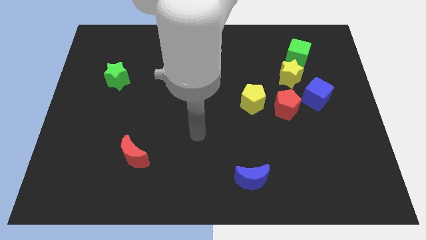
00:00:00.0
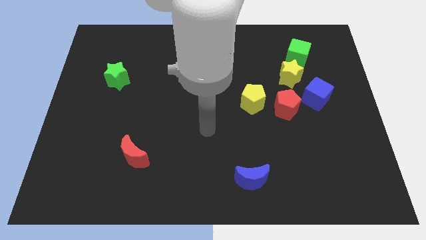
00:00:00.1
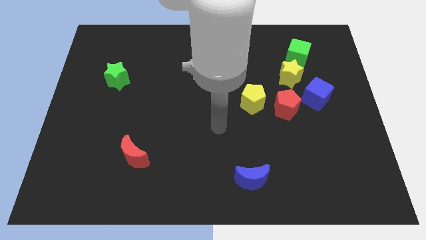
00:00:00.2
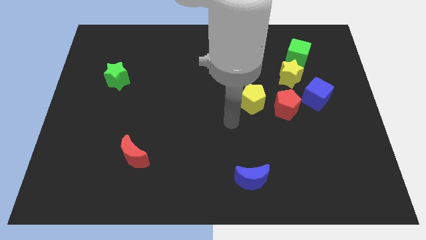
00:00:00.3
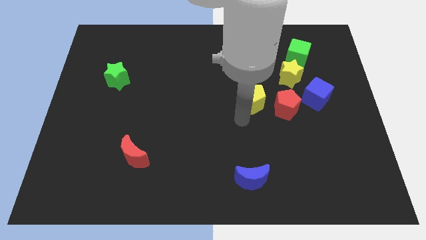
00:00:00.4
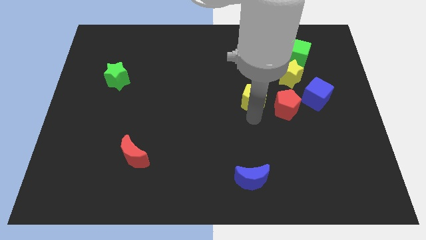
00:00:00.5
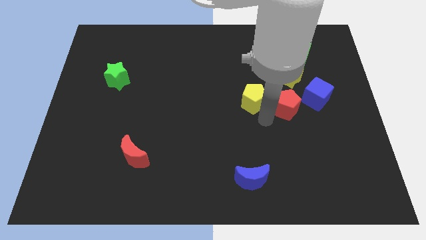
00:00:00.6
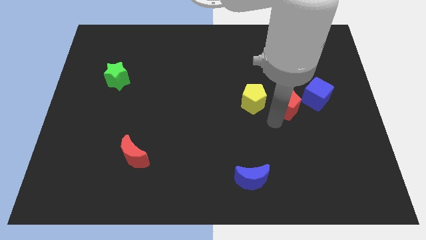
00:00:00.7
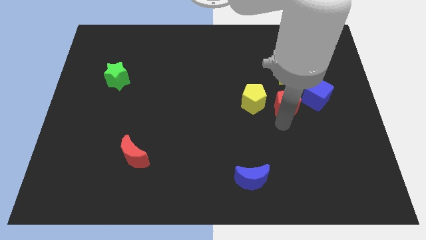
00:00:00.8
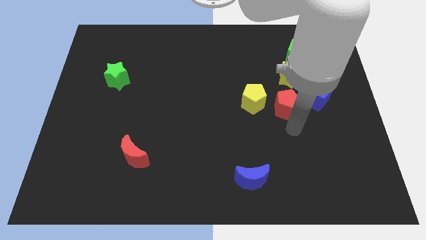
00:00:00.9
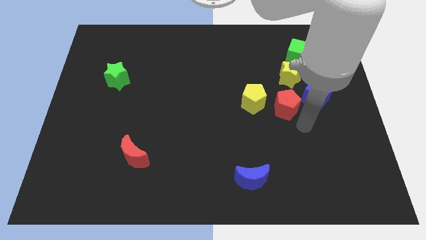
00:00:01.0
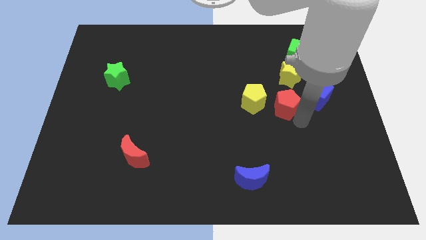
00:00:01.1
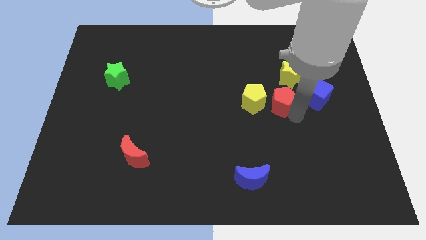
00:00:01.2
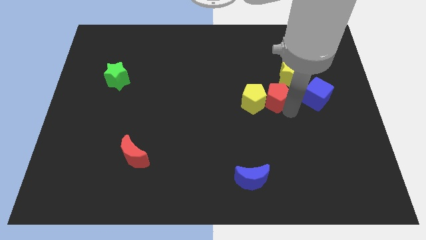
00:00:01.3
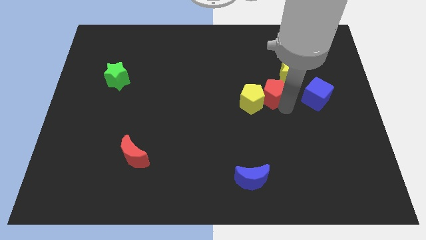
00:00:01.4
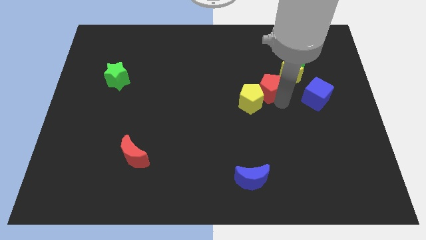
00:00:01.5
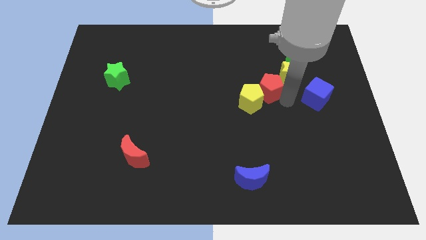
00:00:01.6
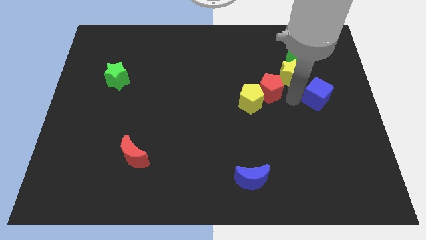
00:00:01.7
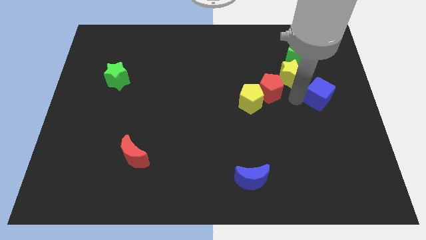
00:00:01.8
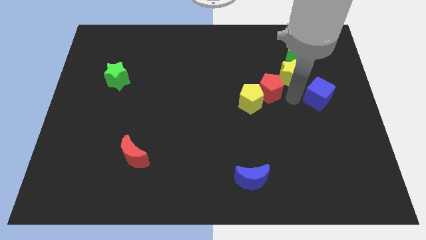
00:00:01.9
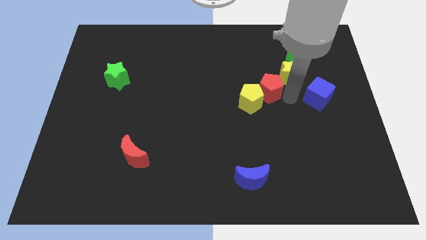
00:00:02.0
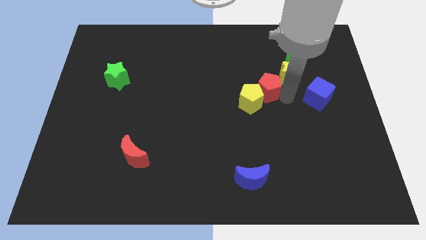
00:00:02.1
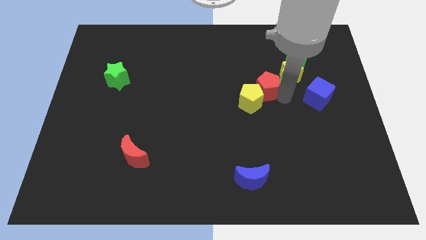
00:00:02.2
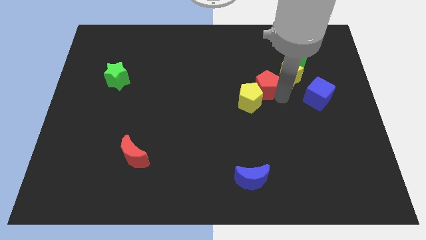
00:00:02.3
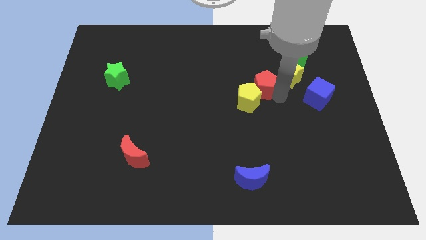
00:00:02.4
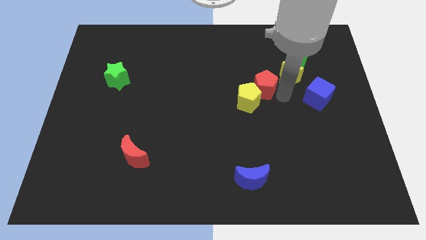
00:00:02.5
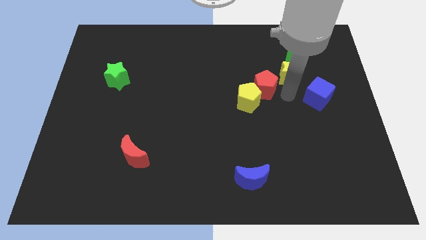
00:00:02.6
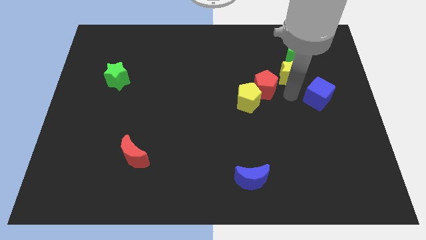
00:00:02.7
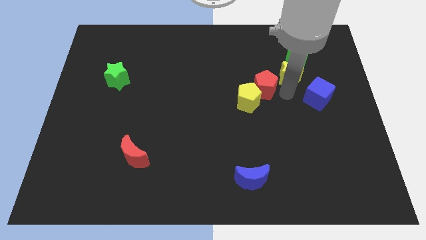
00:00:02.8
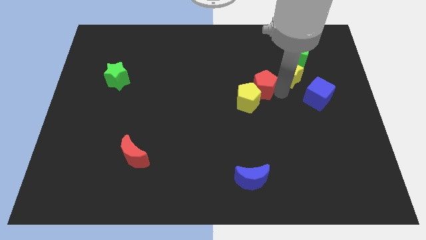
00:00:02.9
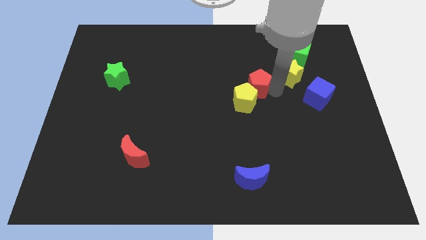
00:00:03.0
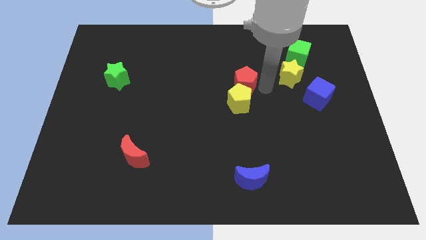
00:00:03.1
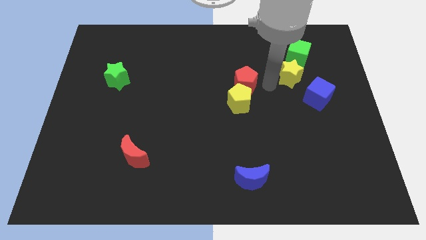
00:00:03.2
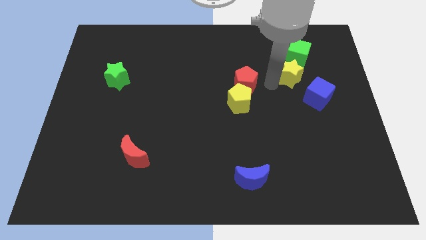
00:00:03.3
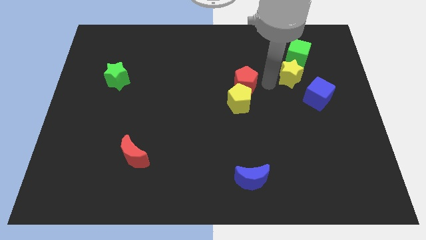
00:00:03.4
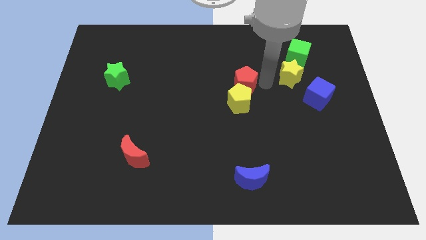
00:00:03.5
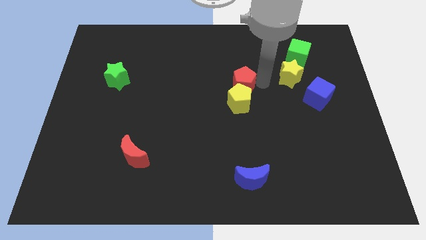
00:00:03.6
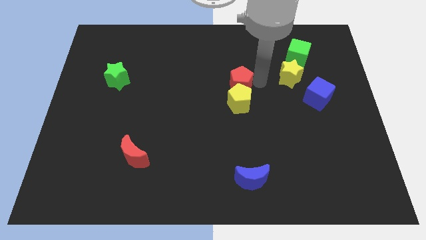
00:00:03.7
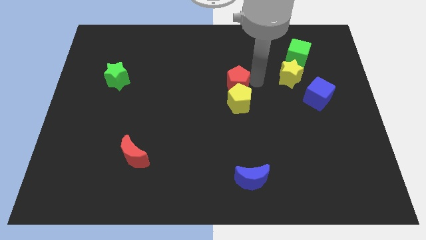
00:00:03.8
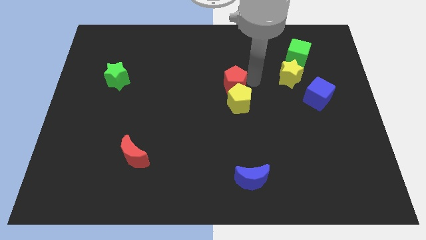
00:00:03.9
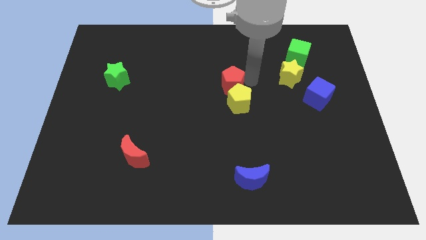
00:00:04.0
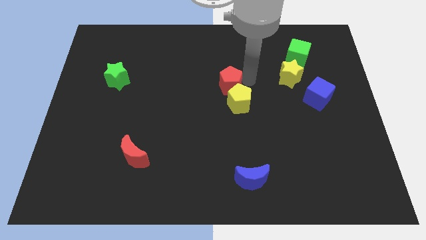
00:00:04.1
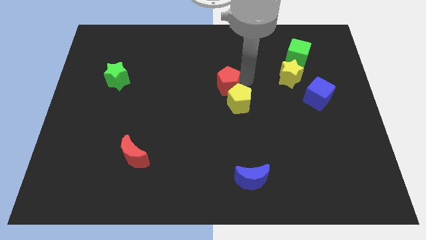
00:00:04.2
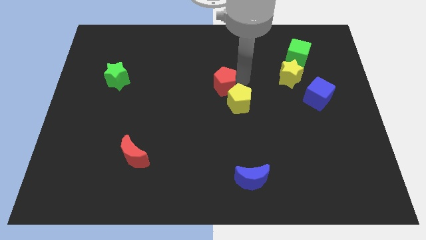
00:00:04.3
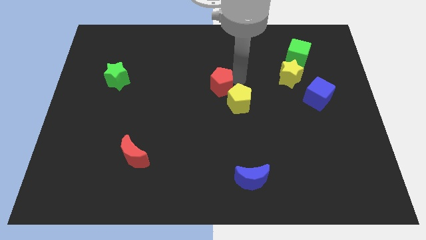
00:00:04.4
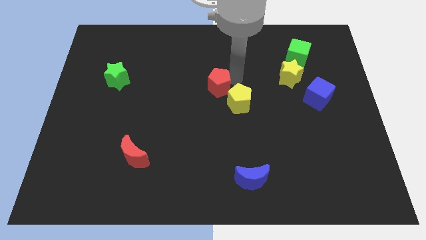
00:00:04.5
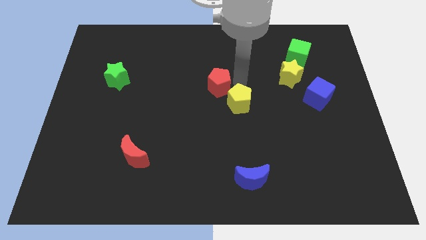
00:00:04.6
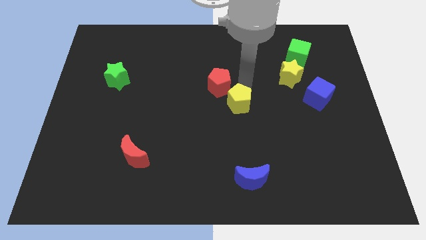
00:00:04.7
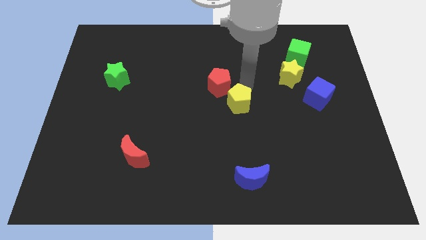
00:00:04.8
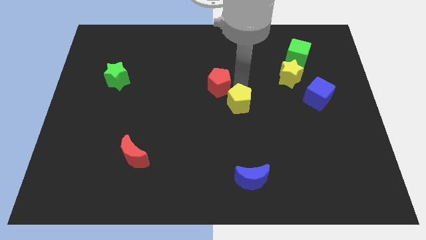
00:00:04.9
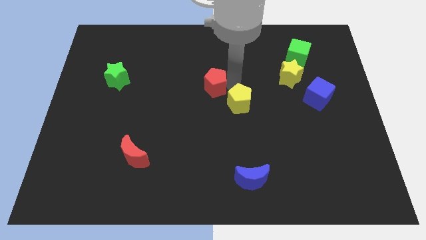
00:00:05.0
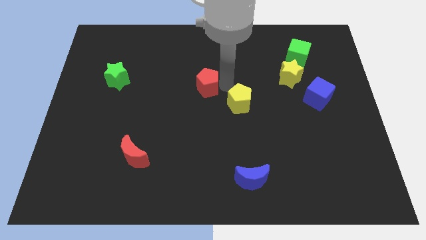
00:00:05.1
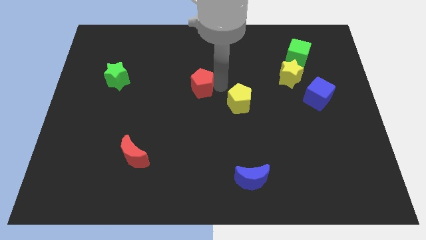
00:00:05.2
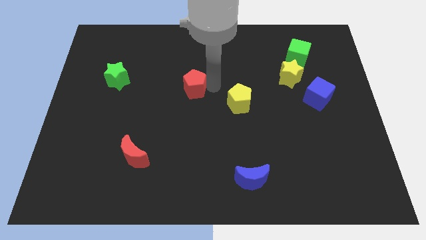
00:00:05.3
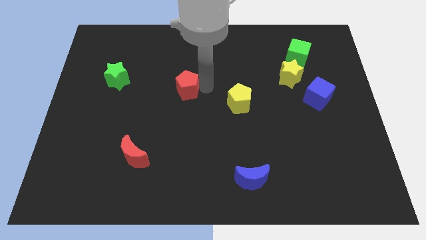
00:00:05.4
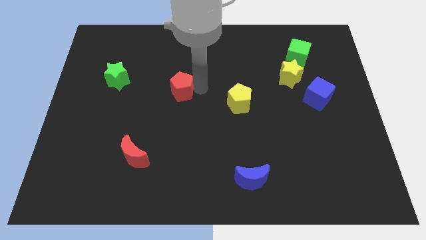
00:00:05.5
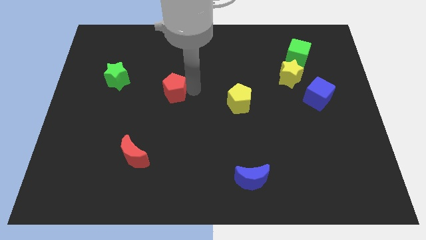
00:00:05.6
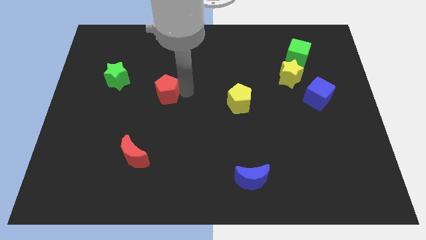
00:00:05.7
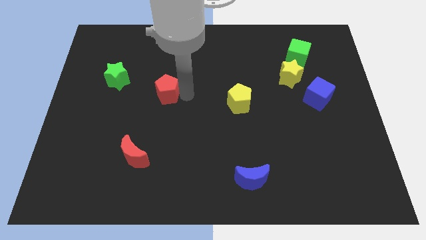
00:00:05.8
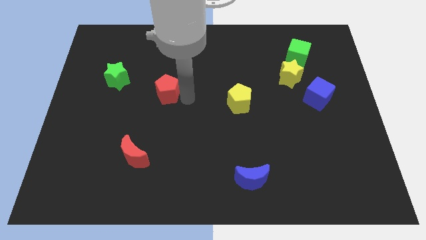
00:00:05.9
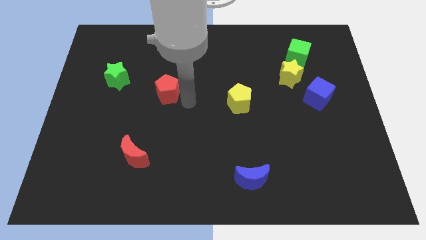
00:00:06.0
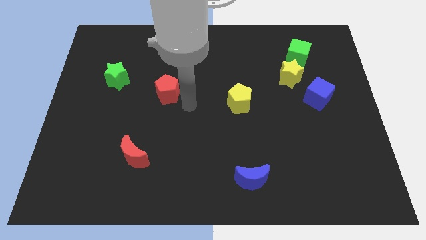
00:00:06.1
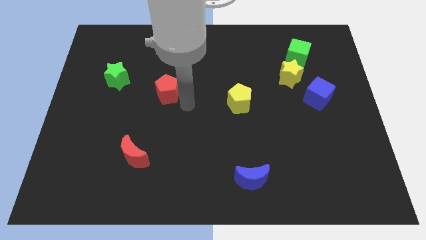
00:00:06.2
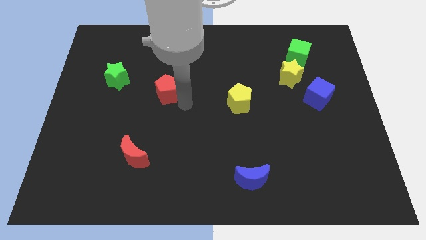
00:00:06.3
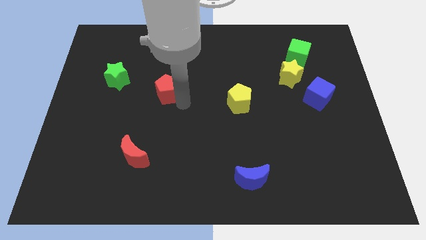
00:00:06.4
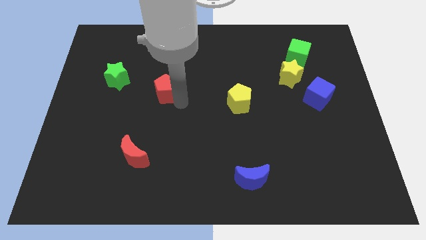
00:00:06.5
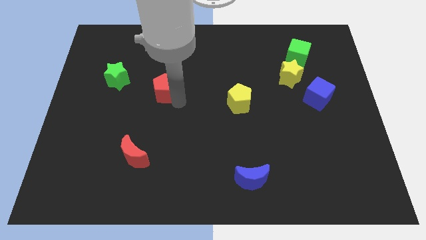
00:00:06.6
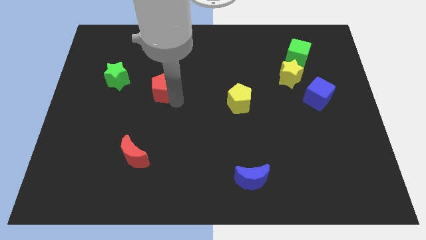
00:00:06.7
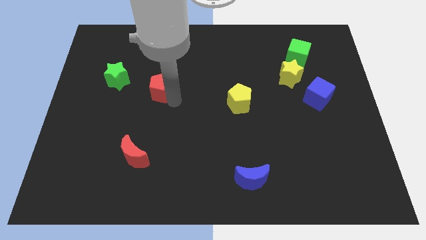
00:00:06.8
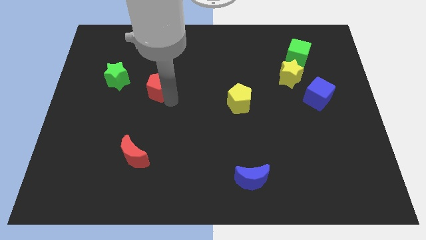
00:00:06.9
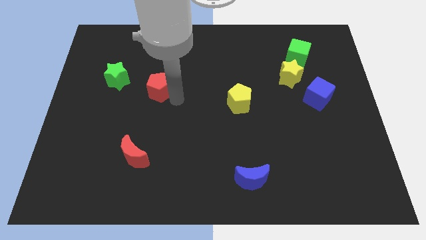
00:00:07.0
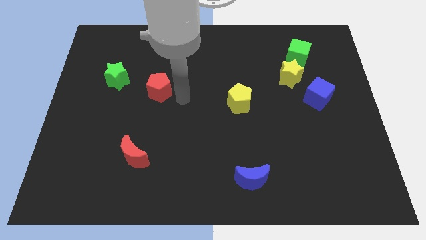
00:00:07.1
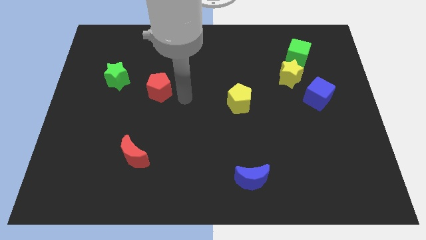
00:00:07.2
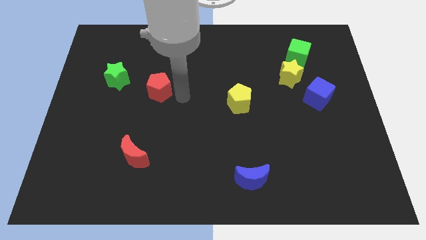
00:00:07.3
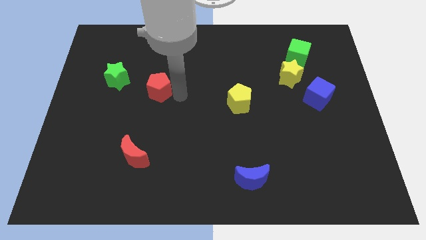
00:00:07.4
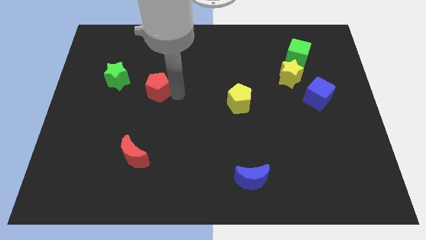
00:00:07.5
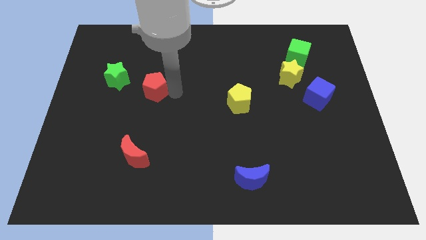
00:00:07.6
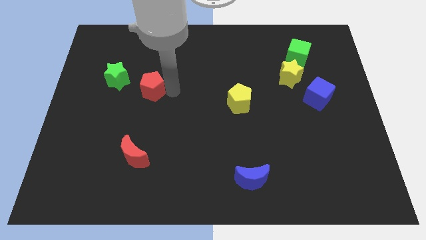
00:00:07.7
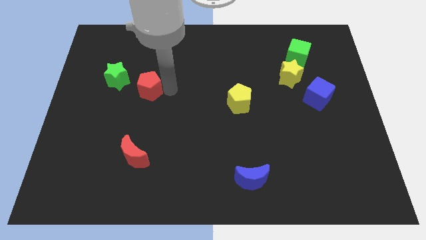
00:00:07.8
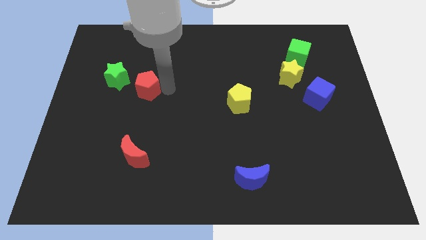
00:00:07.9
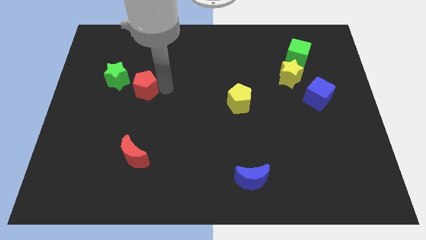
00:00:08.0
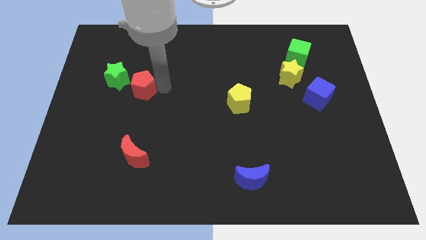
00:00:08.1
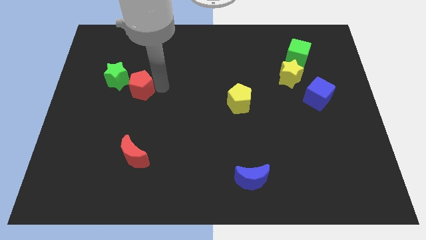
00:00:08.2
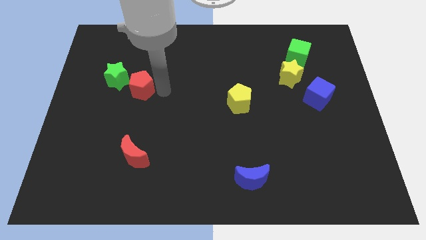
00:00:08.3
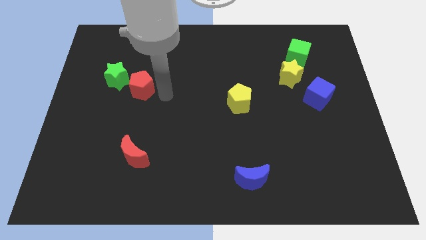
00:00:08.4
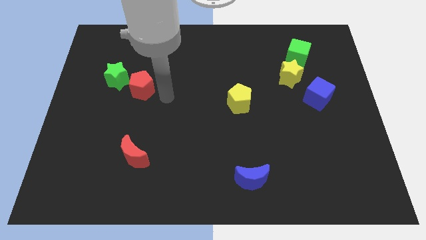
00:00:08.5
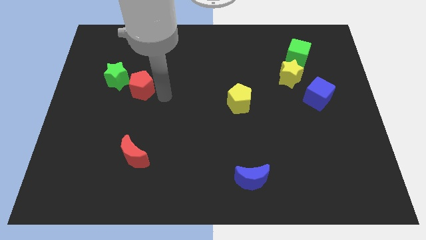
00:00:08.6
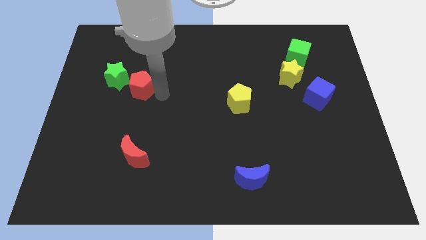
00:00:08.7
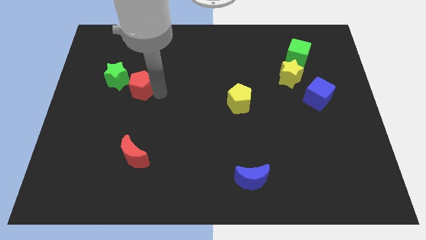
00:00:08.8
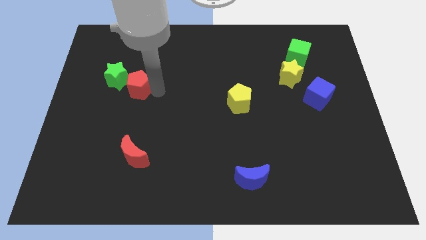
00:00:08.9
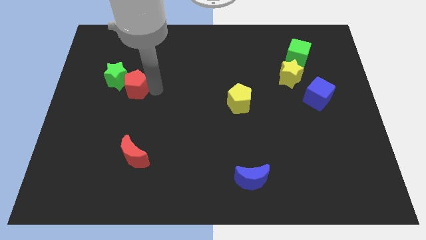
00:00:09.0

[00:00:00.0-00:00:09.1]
slide the red pentagon towards the green star
